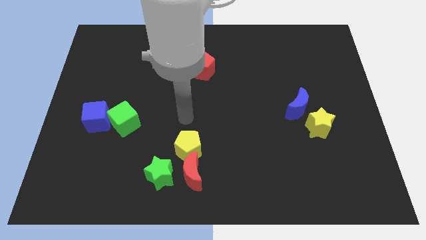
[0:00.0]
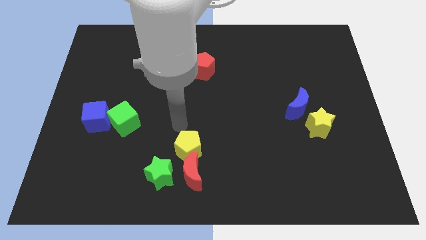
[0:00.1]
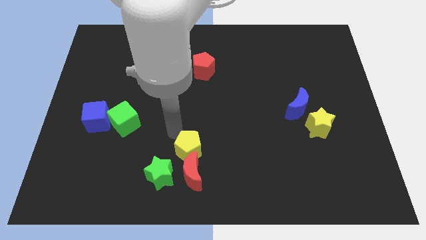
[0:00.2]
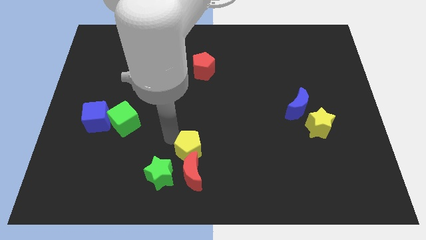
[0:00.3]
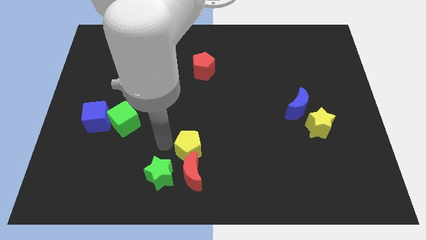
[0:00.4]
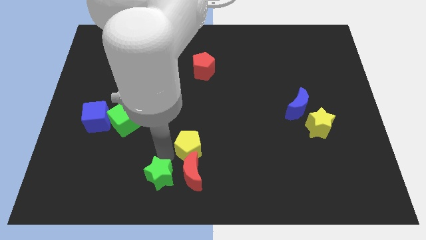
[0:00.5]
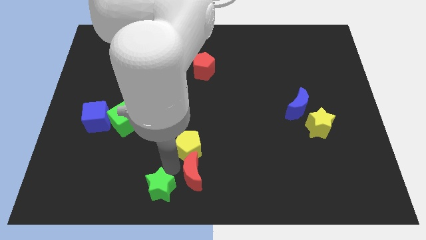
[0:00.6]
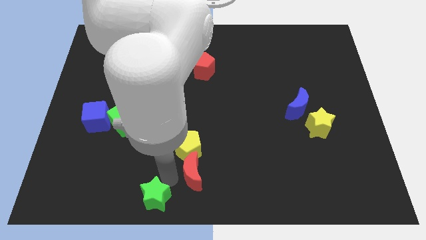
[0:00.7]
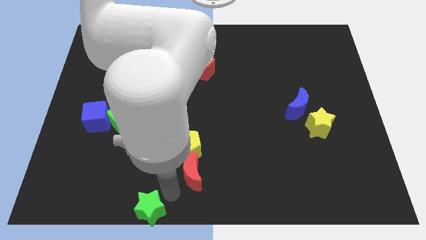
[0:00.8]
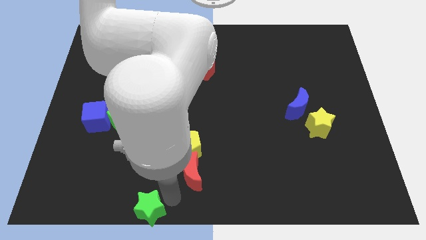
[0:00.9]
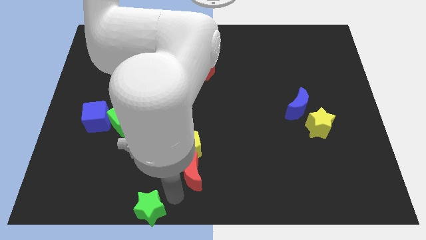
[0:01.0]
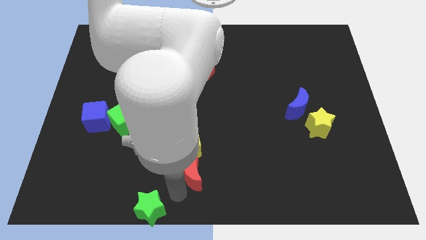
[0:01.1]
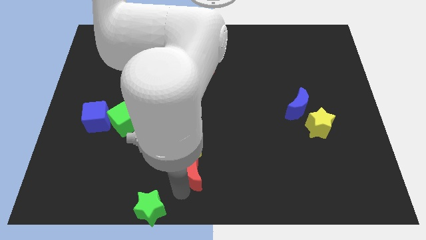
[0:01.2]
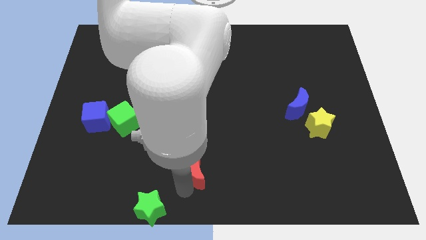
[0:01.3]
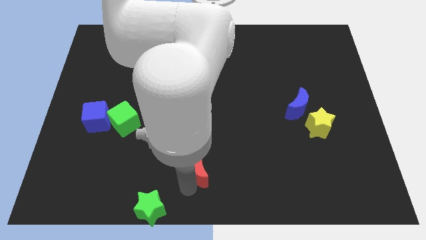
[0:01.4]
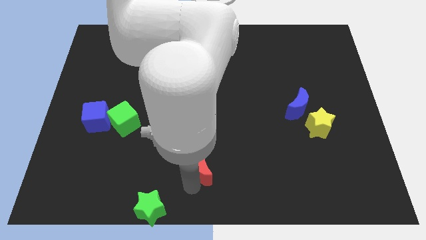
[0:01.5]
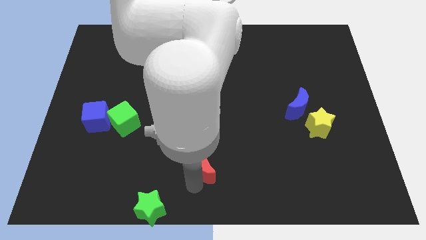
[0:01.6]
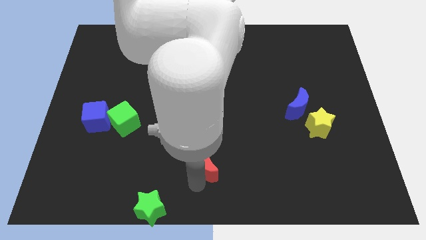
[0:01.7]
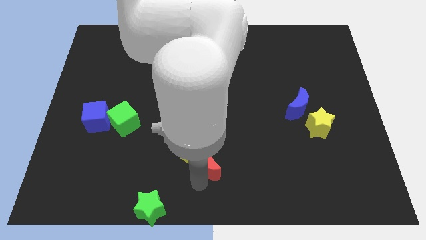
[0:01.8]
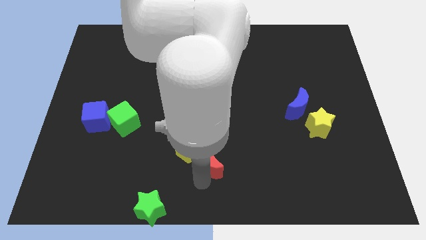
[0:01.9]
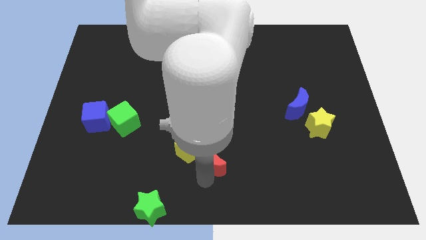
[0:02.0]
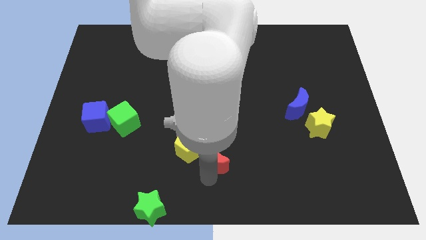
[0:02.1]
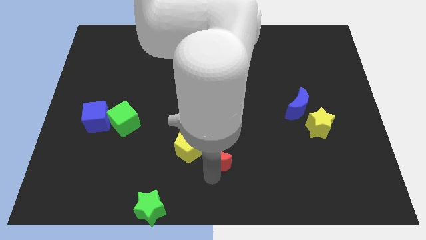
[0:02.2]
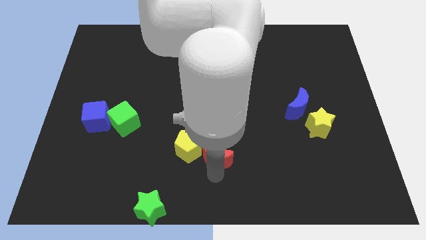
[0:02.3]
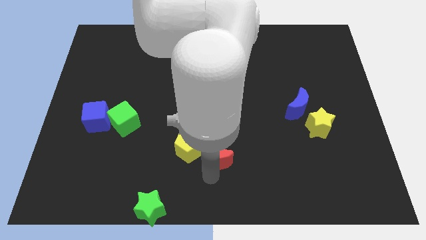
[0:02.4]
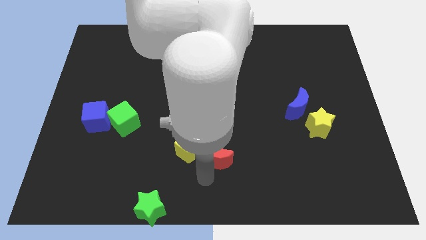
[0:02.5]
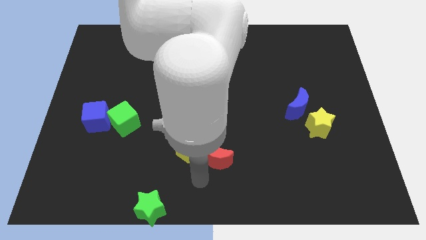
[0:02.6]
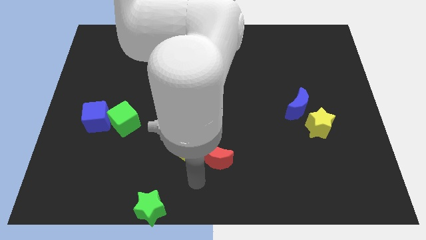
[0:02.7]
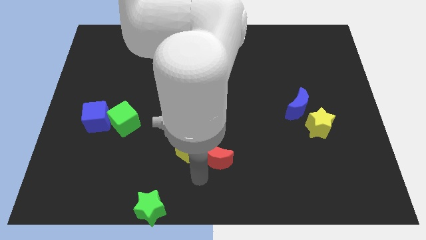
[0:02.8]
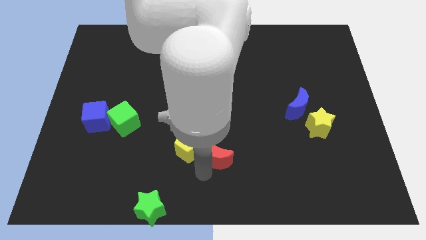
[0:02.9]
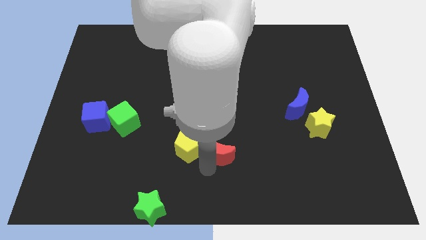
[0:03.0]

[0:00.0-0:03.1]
slide the red moon a little upwards and to the right diagonally

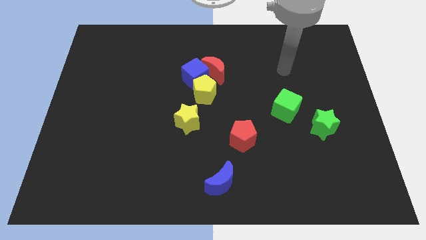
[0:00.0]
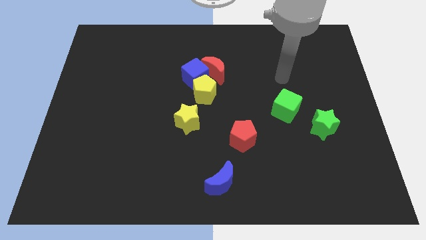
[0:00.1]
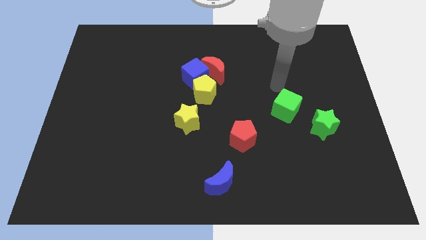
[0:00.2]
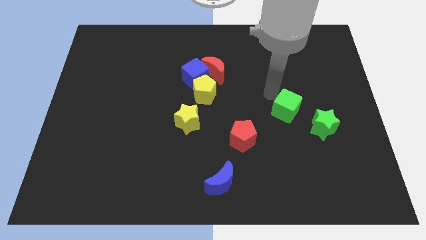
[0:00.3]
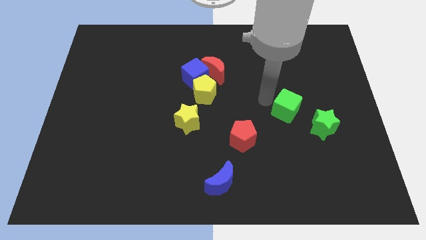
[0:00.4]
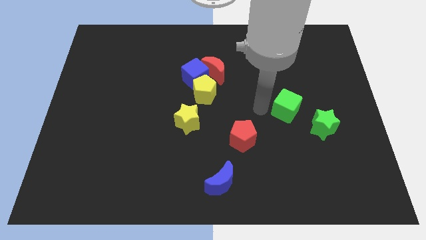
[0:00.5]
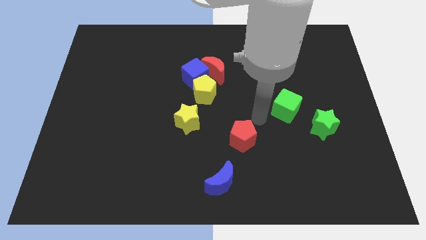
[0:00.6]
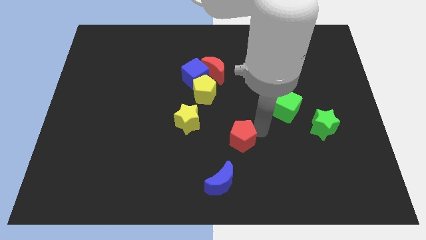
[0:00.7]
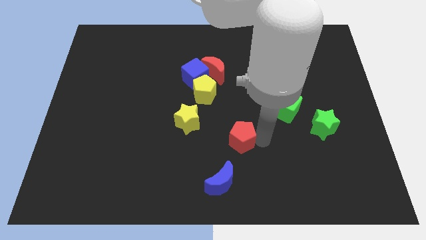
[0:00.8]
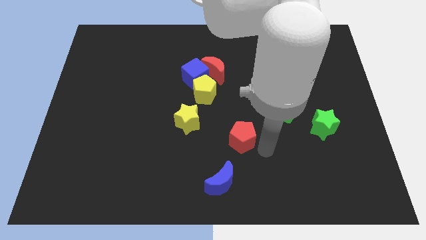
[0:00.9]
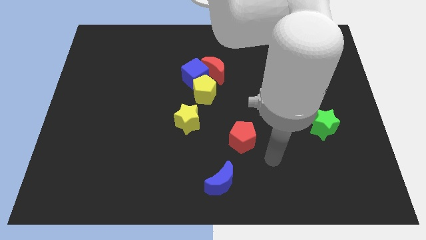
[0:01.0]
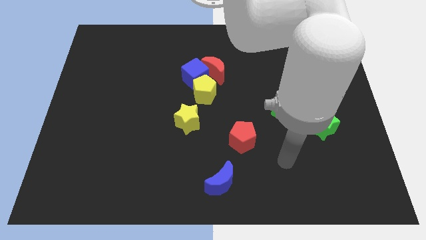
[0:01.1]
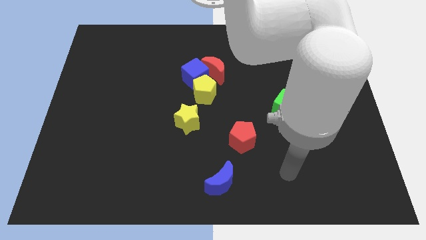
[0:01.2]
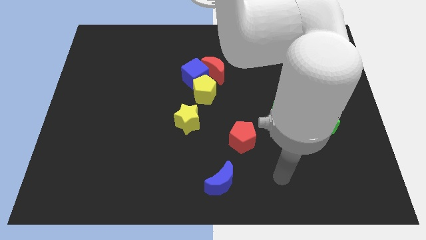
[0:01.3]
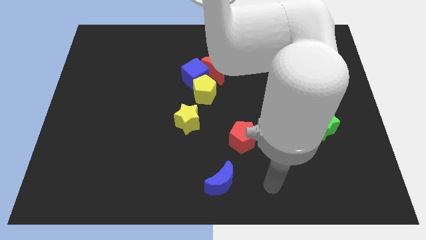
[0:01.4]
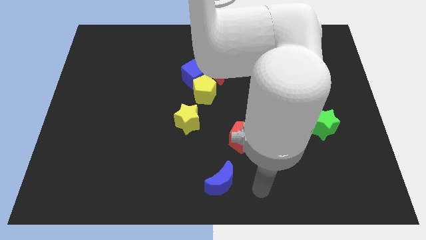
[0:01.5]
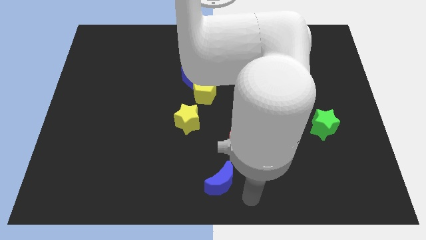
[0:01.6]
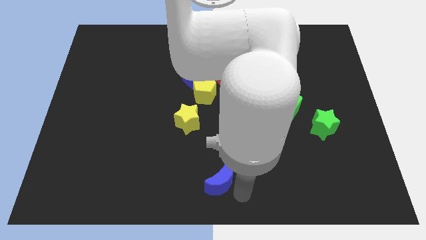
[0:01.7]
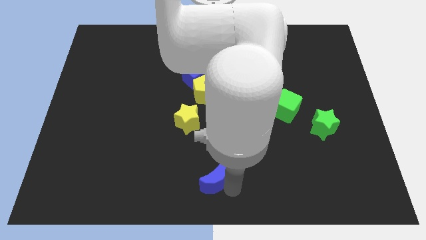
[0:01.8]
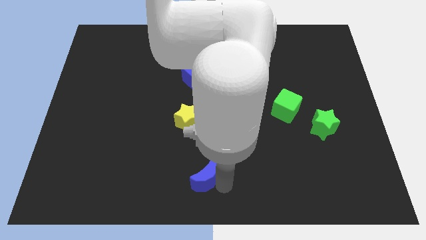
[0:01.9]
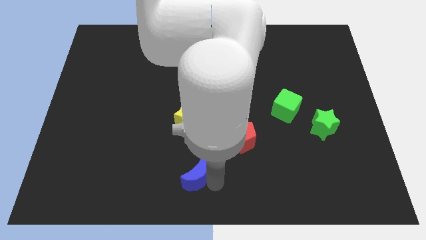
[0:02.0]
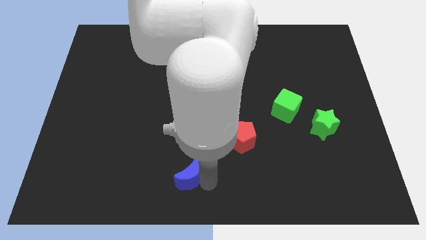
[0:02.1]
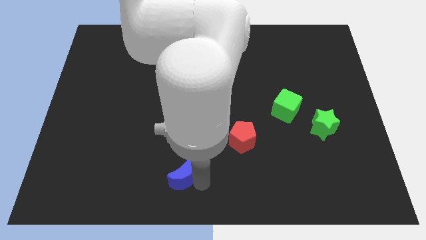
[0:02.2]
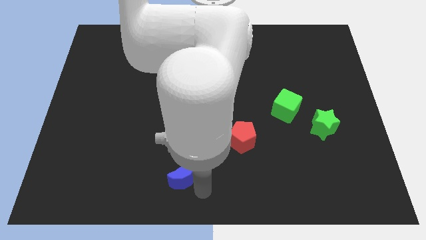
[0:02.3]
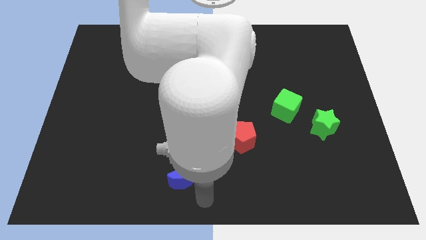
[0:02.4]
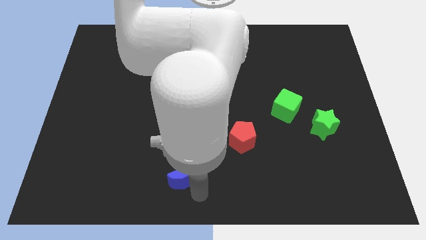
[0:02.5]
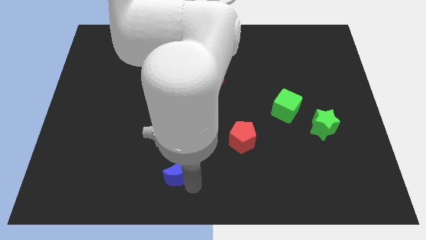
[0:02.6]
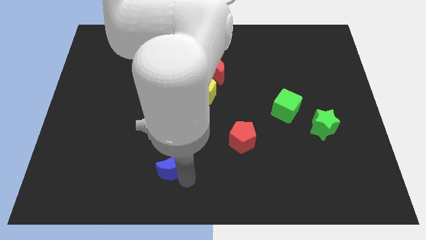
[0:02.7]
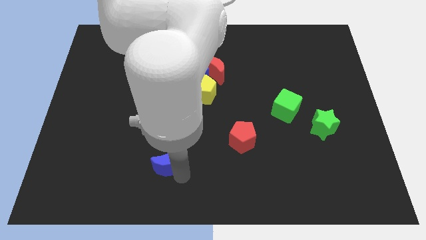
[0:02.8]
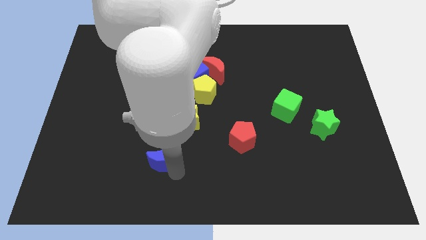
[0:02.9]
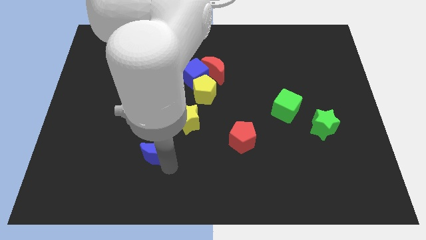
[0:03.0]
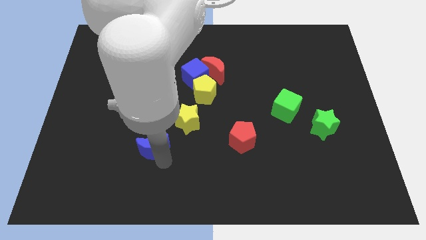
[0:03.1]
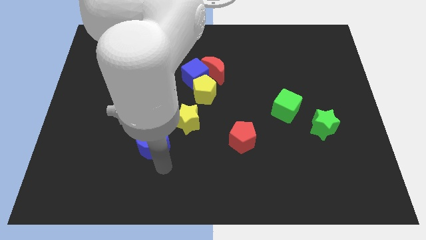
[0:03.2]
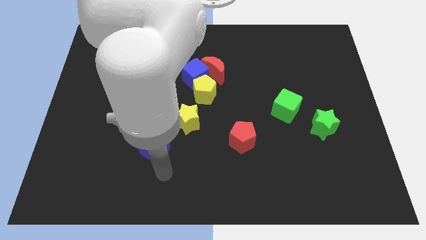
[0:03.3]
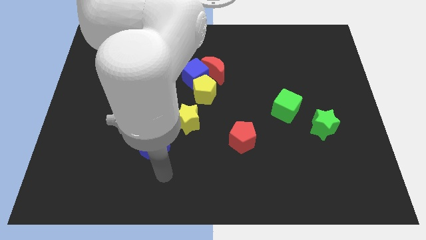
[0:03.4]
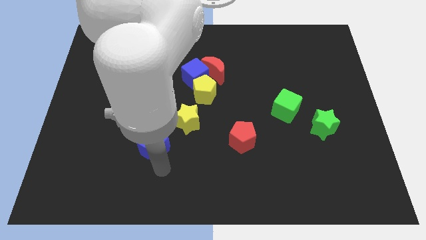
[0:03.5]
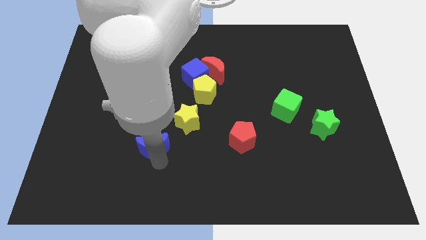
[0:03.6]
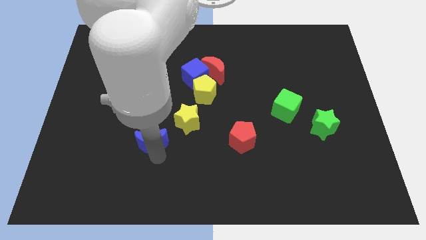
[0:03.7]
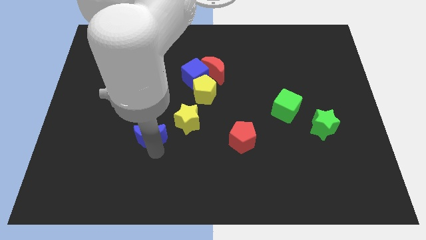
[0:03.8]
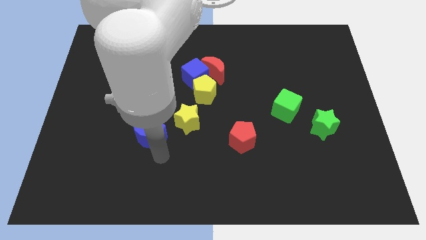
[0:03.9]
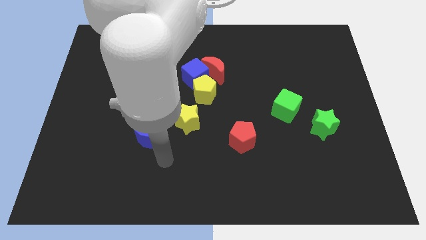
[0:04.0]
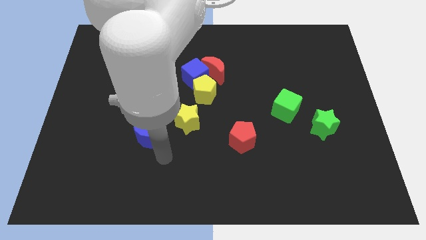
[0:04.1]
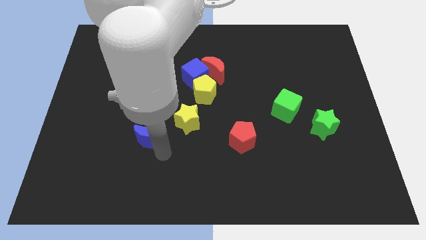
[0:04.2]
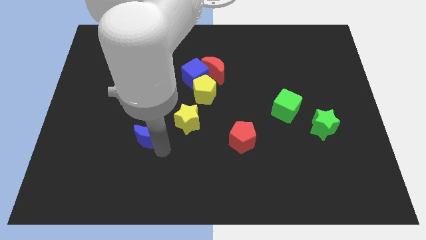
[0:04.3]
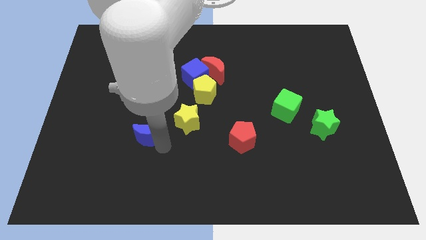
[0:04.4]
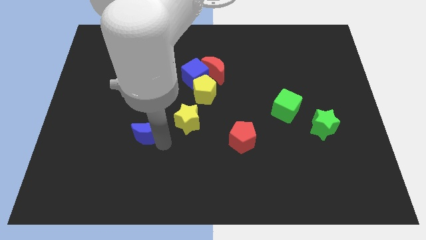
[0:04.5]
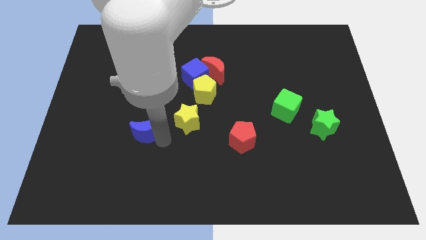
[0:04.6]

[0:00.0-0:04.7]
push the blue moon upwards and then left

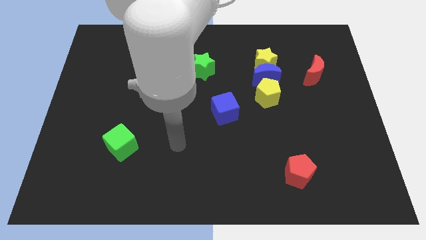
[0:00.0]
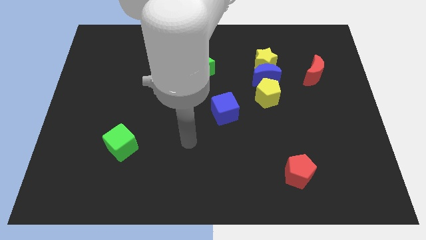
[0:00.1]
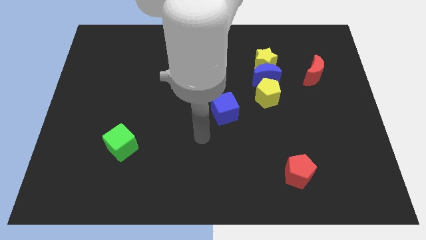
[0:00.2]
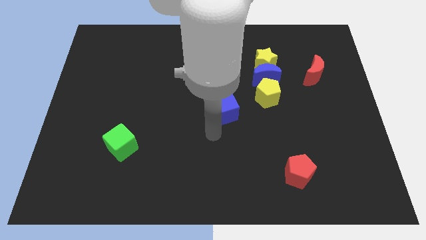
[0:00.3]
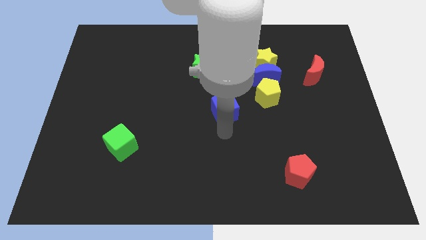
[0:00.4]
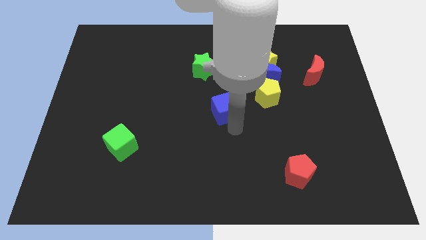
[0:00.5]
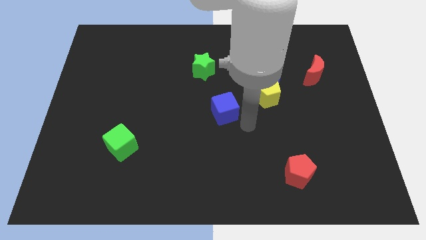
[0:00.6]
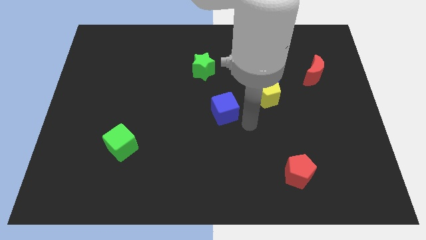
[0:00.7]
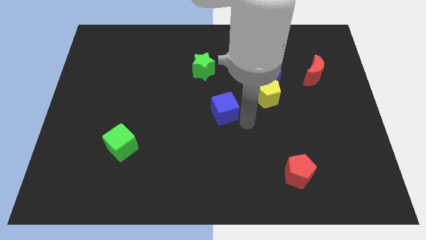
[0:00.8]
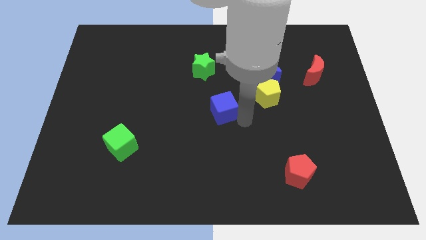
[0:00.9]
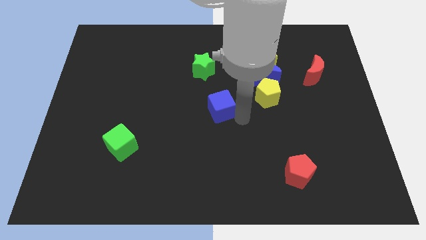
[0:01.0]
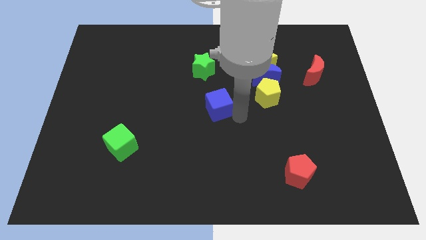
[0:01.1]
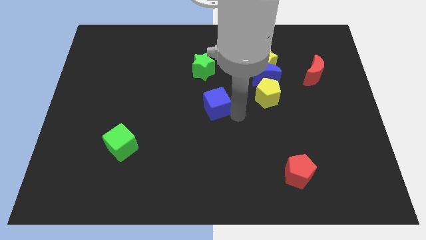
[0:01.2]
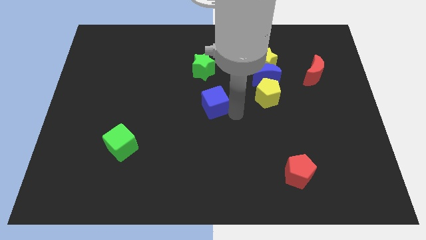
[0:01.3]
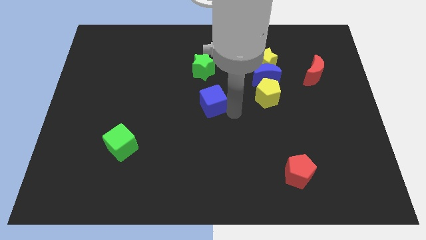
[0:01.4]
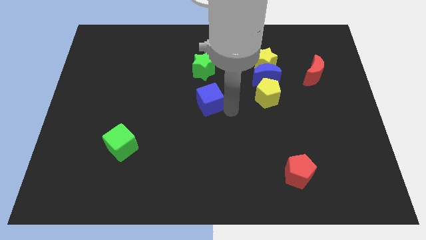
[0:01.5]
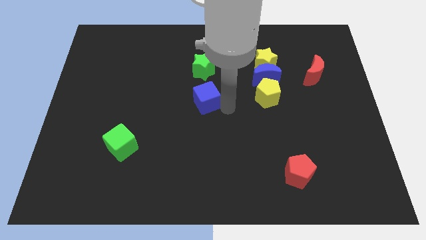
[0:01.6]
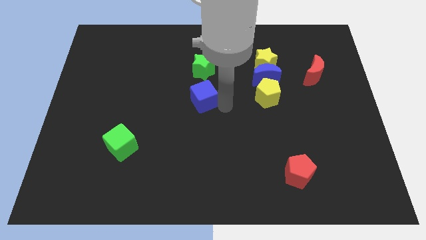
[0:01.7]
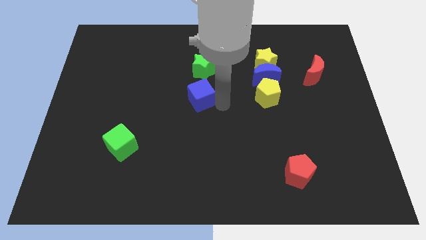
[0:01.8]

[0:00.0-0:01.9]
slightly push the blue cube upwards and left diagonally
